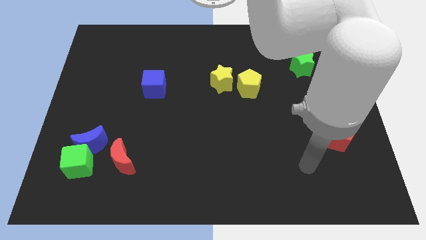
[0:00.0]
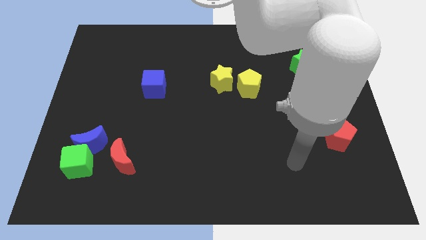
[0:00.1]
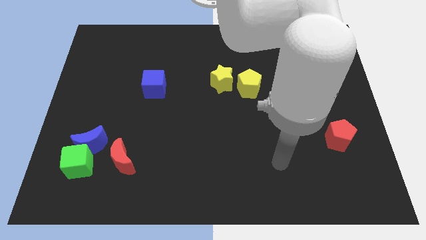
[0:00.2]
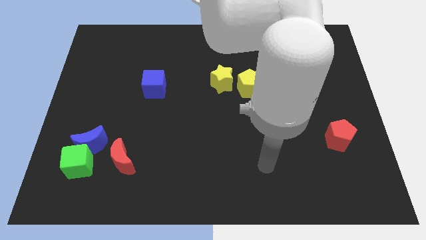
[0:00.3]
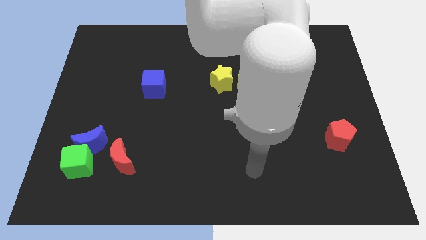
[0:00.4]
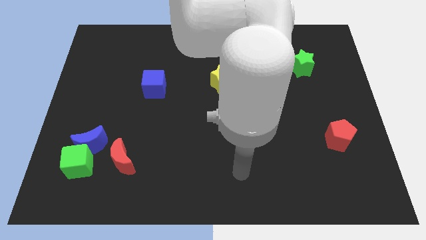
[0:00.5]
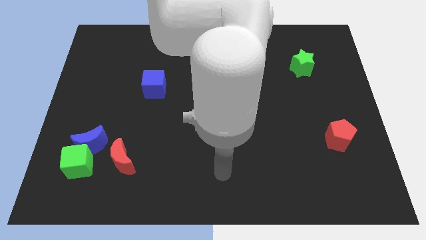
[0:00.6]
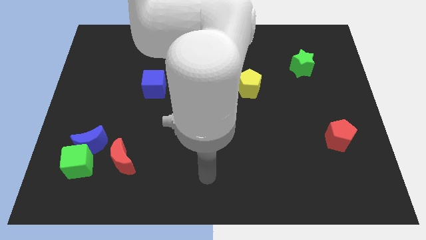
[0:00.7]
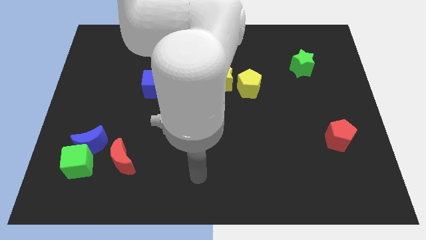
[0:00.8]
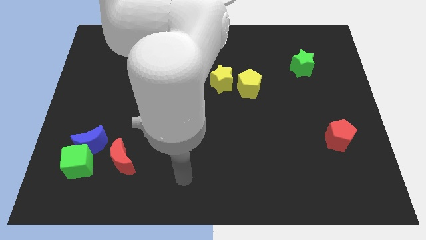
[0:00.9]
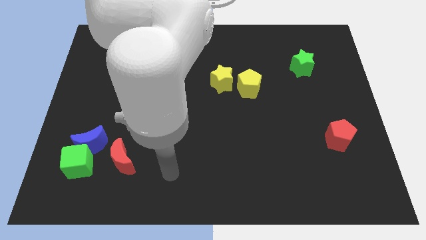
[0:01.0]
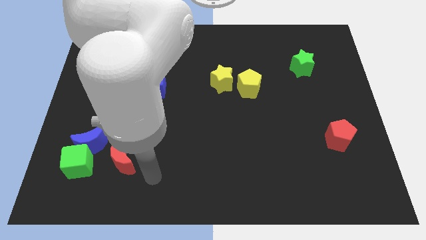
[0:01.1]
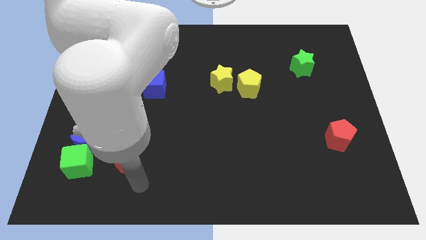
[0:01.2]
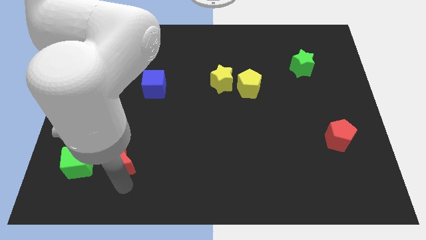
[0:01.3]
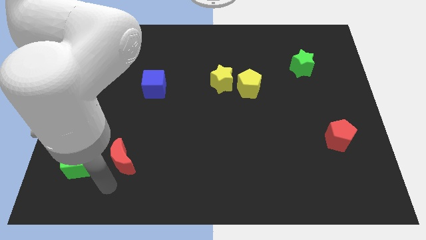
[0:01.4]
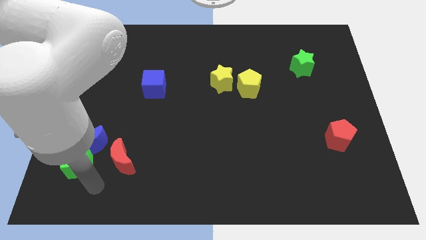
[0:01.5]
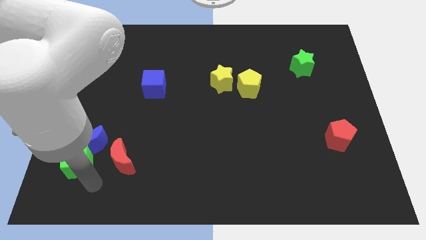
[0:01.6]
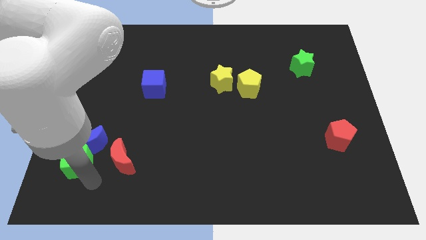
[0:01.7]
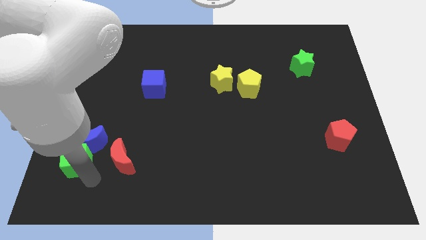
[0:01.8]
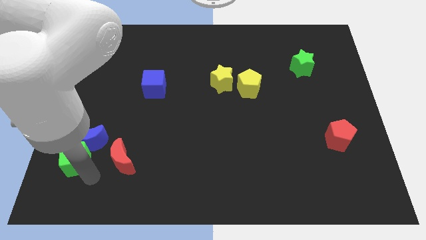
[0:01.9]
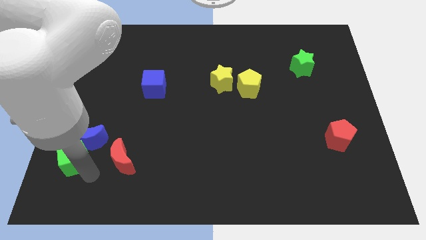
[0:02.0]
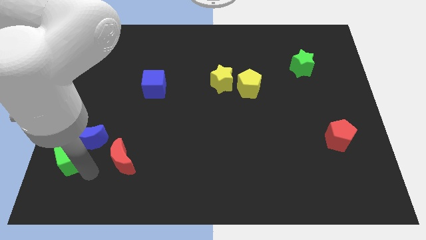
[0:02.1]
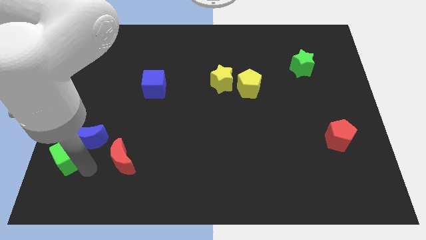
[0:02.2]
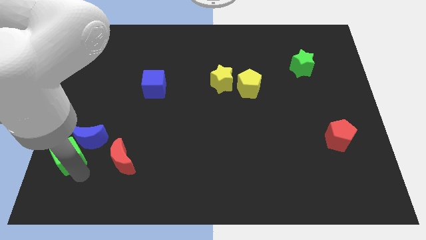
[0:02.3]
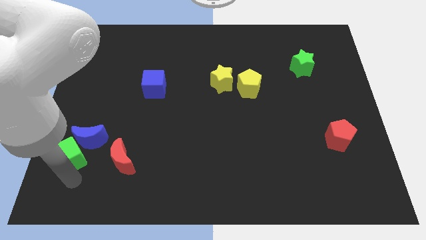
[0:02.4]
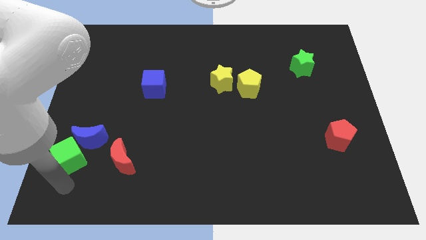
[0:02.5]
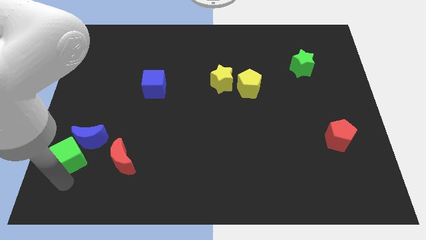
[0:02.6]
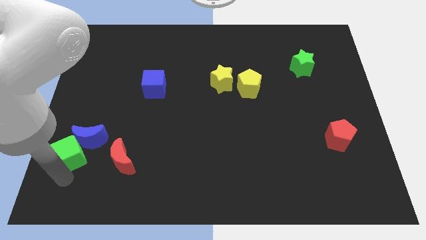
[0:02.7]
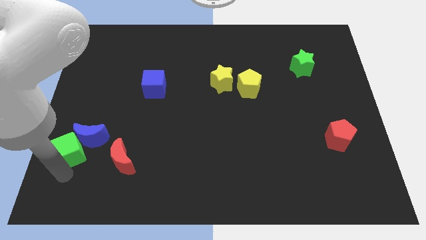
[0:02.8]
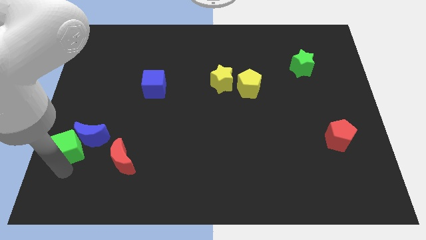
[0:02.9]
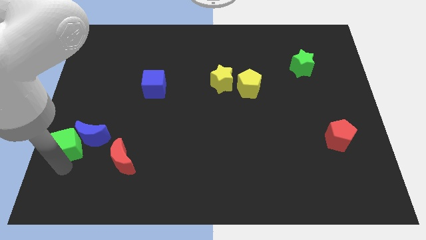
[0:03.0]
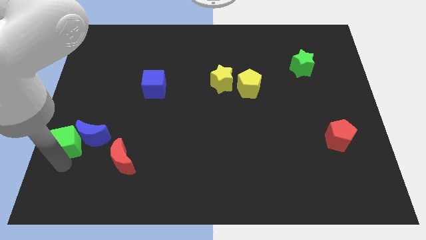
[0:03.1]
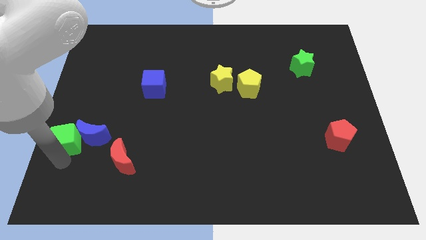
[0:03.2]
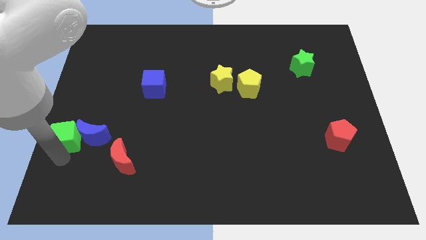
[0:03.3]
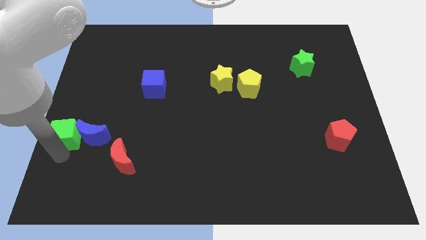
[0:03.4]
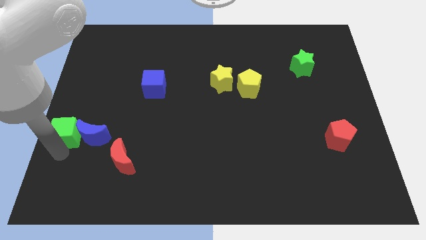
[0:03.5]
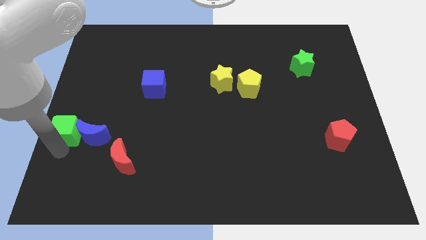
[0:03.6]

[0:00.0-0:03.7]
slightly push the green cube up

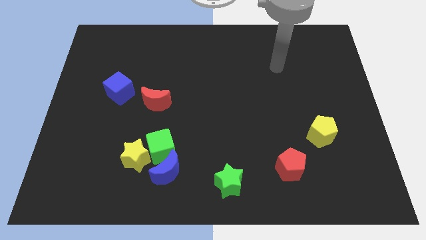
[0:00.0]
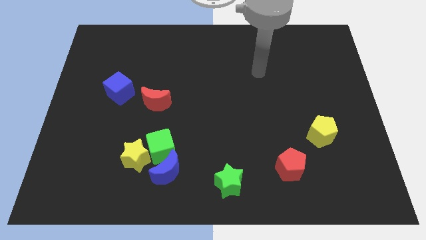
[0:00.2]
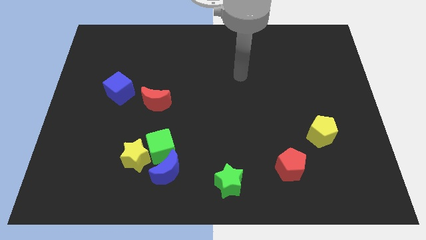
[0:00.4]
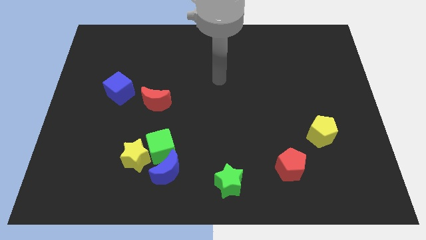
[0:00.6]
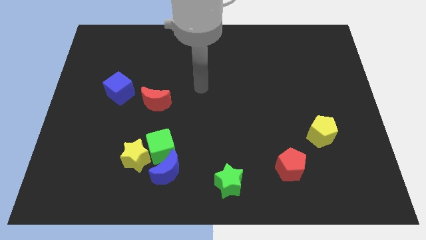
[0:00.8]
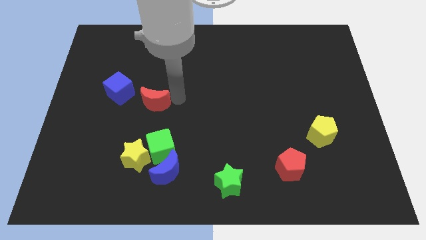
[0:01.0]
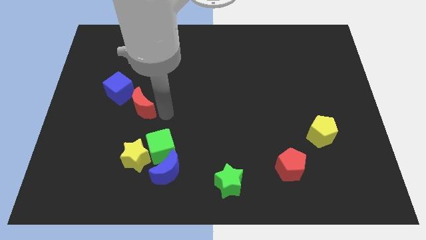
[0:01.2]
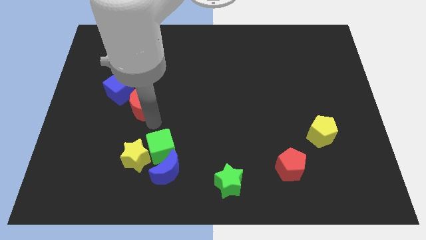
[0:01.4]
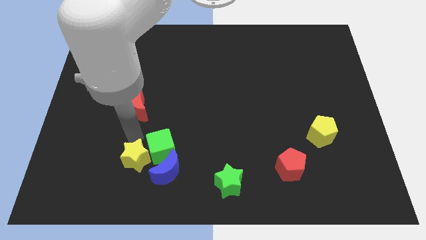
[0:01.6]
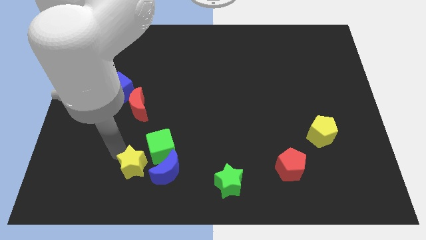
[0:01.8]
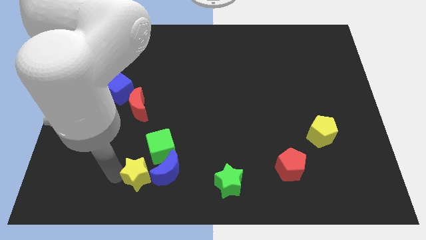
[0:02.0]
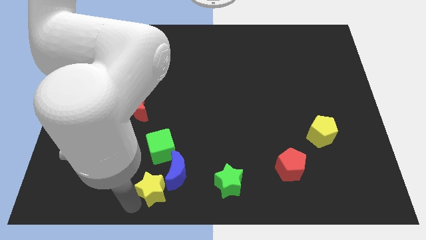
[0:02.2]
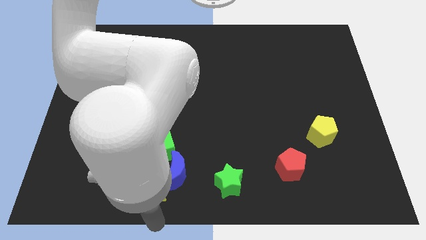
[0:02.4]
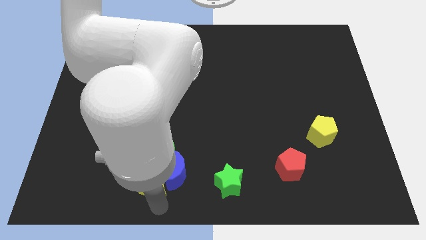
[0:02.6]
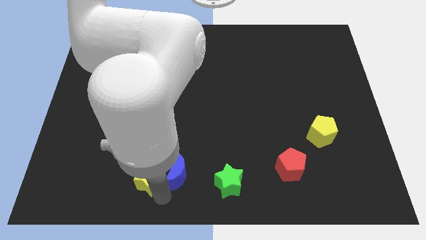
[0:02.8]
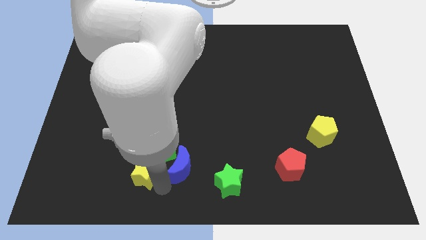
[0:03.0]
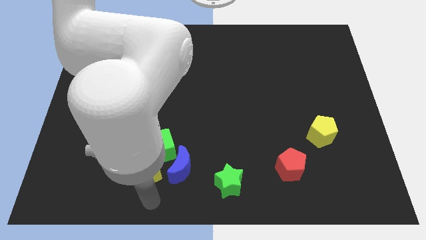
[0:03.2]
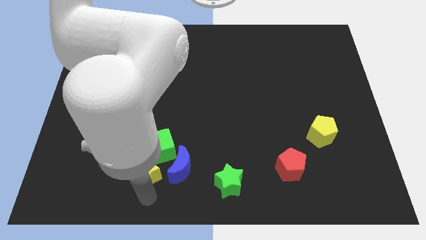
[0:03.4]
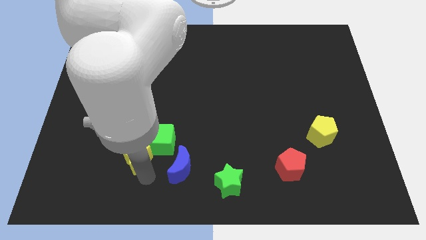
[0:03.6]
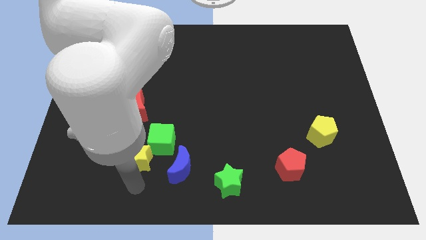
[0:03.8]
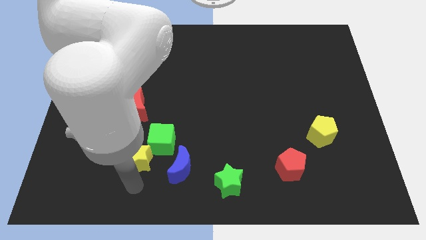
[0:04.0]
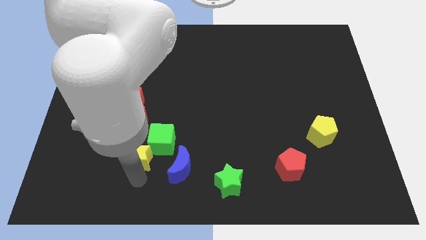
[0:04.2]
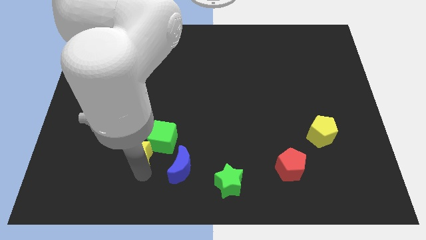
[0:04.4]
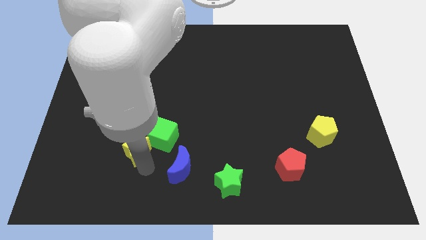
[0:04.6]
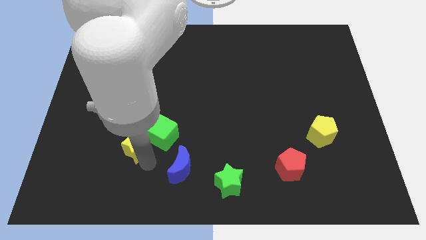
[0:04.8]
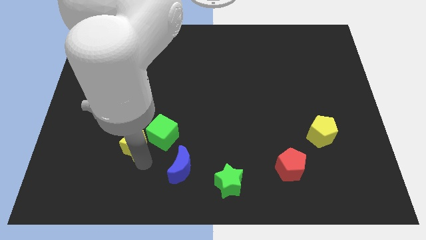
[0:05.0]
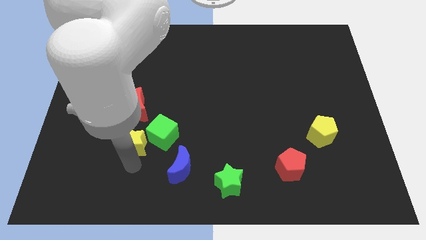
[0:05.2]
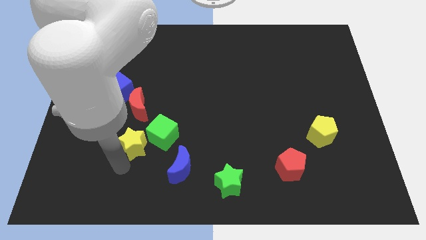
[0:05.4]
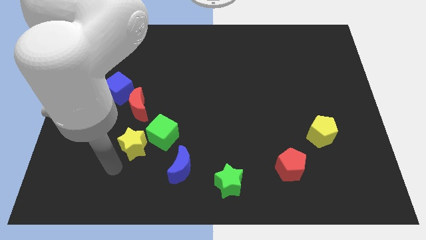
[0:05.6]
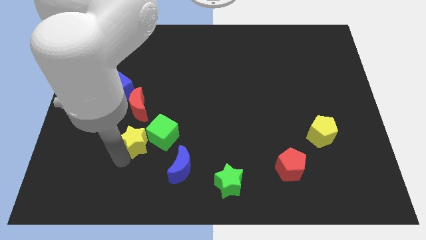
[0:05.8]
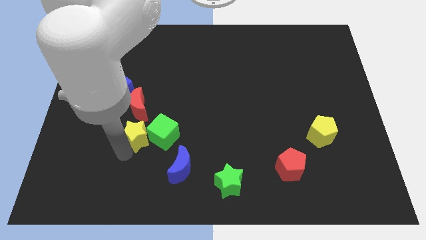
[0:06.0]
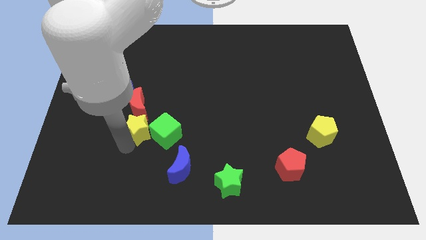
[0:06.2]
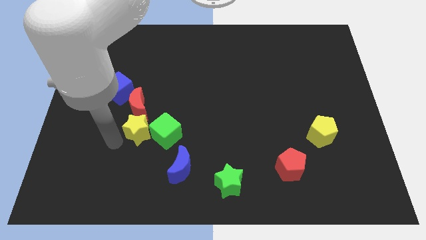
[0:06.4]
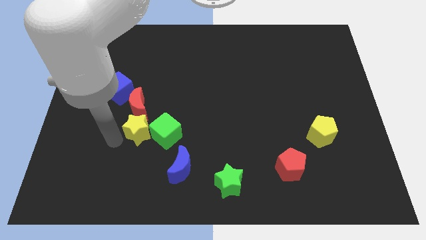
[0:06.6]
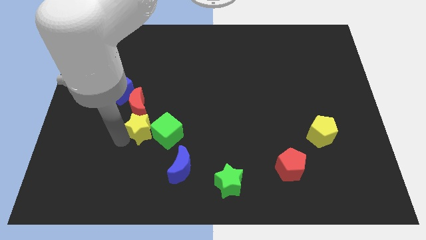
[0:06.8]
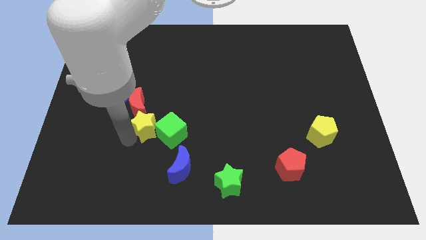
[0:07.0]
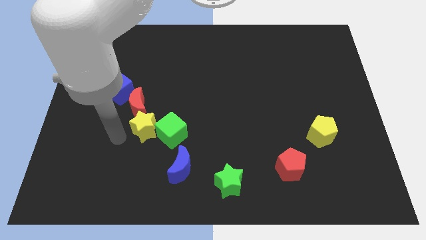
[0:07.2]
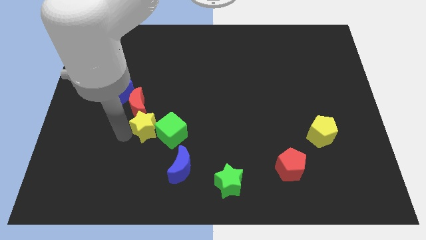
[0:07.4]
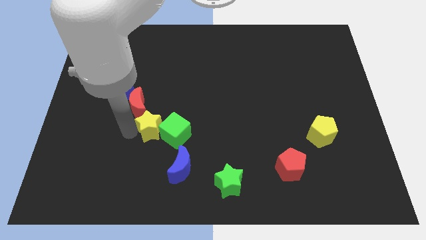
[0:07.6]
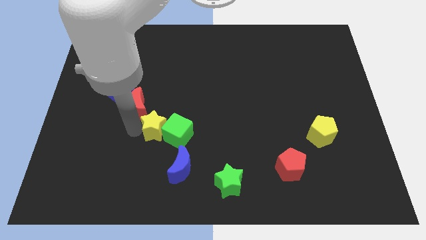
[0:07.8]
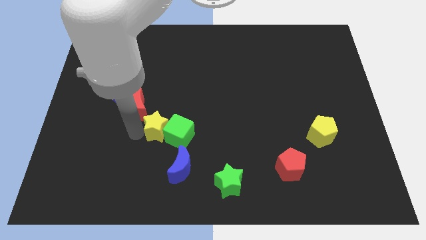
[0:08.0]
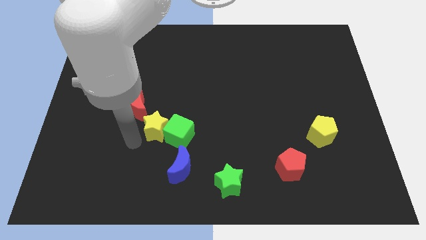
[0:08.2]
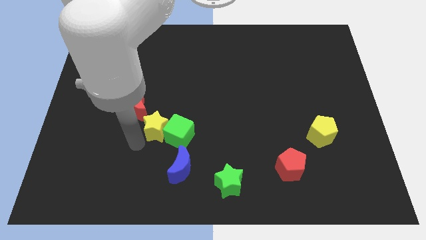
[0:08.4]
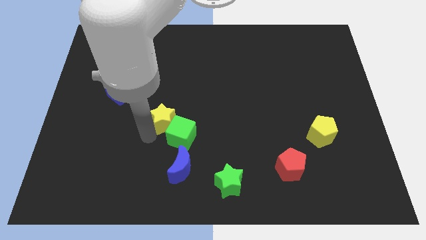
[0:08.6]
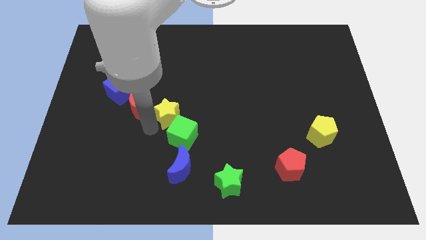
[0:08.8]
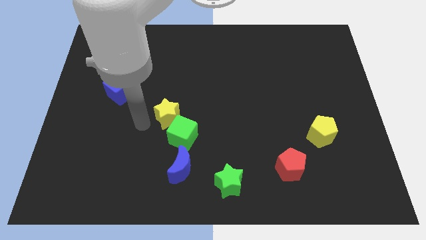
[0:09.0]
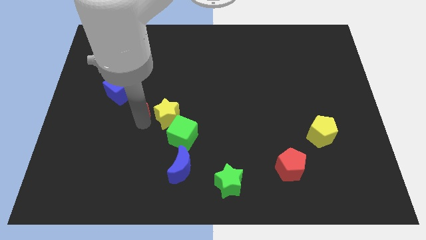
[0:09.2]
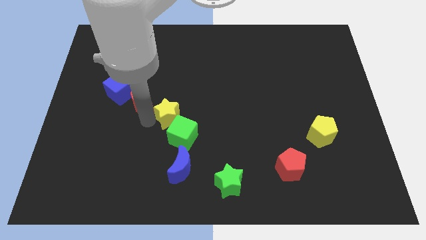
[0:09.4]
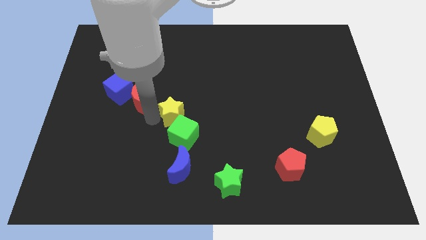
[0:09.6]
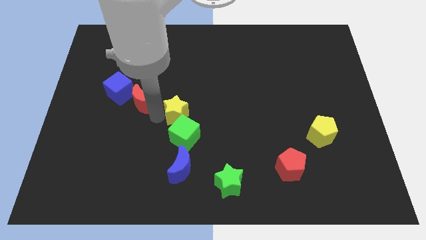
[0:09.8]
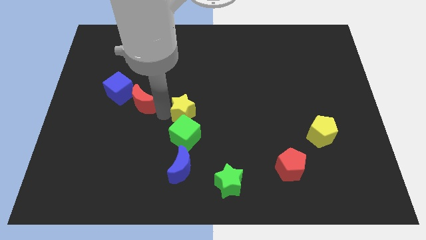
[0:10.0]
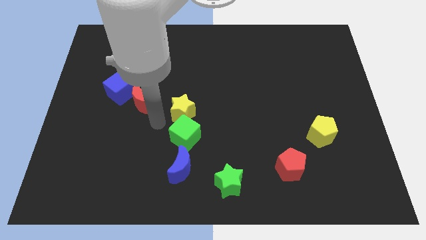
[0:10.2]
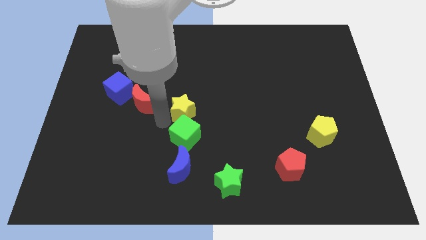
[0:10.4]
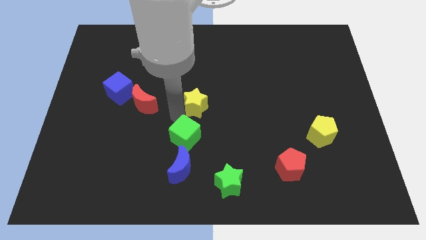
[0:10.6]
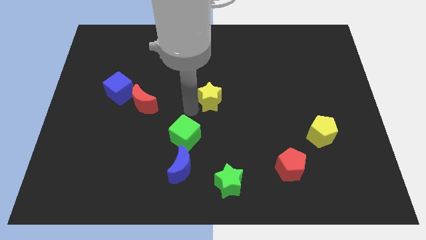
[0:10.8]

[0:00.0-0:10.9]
slide the yellow star upwards and right diagonally
